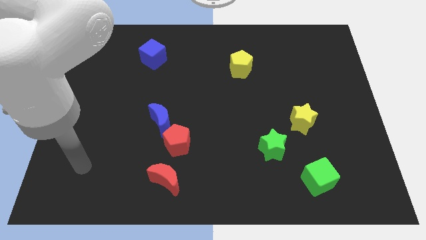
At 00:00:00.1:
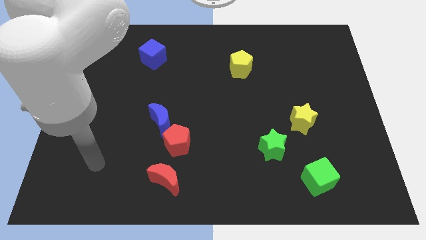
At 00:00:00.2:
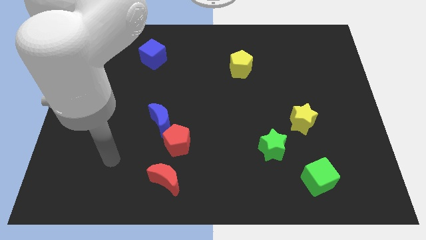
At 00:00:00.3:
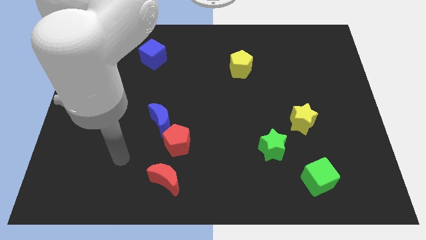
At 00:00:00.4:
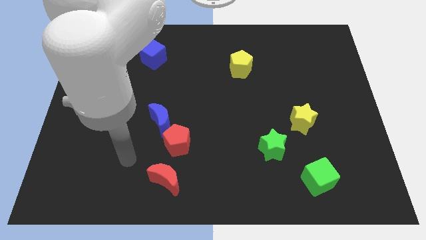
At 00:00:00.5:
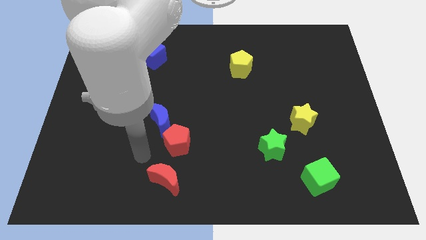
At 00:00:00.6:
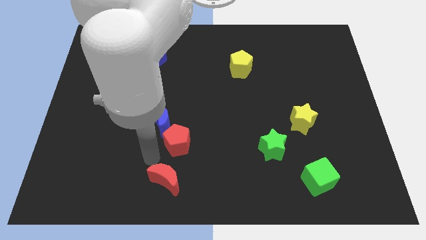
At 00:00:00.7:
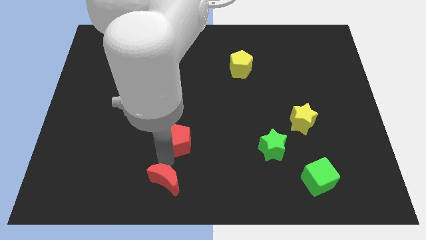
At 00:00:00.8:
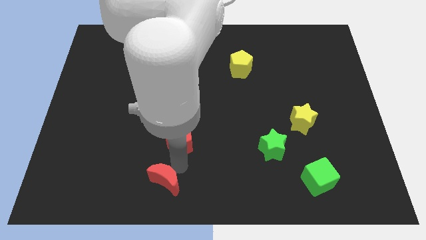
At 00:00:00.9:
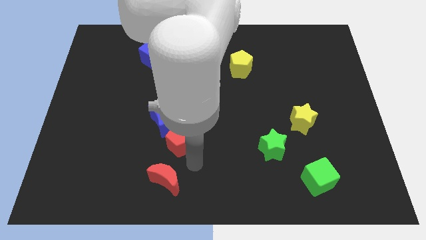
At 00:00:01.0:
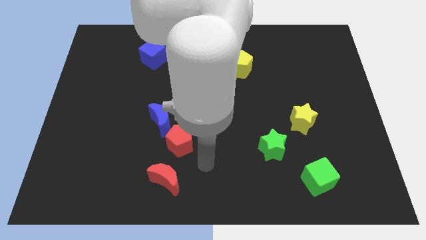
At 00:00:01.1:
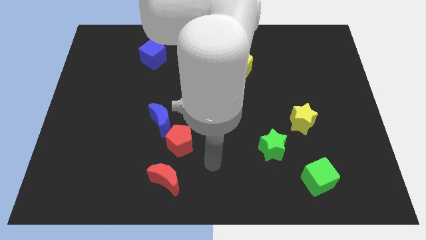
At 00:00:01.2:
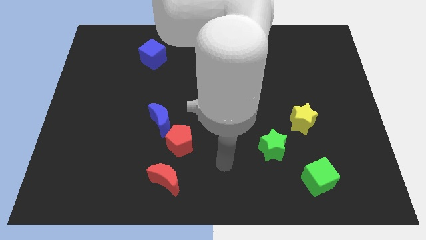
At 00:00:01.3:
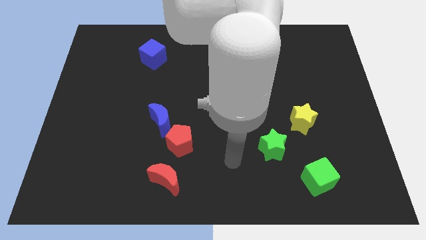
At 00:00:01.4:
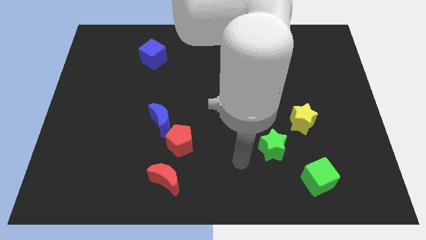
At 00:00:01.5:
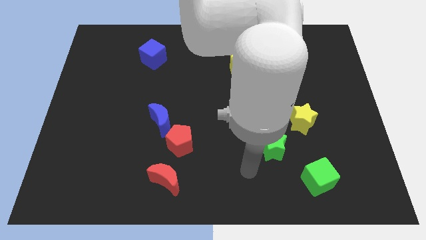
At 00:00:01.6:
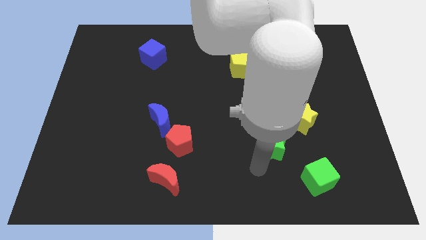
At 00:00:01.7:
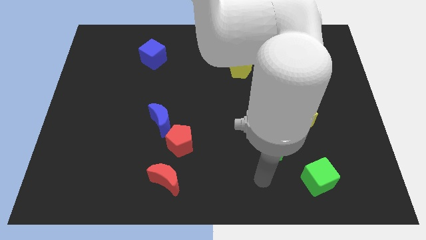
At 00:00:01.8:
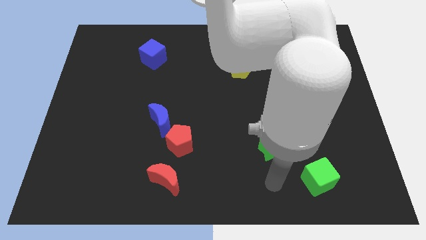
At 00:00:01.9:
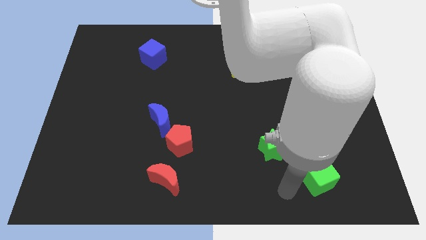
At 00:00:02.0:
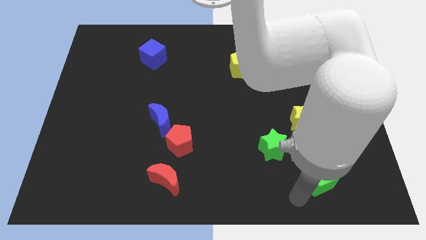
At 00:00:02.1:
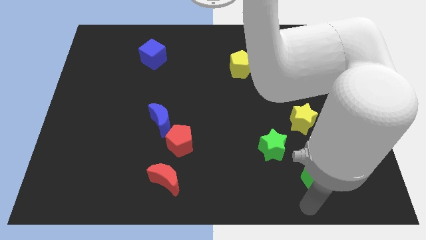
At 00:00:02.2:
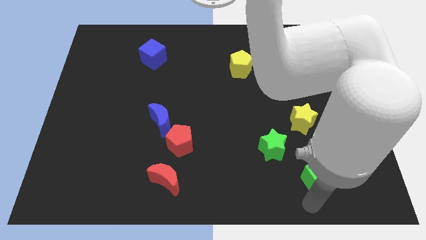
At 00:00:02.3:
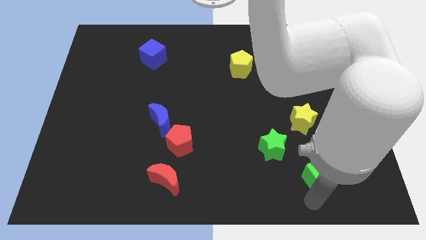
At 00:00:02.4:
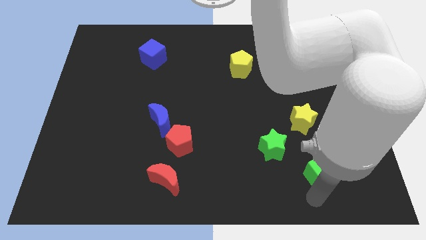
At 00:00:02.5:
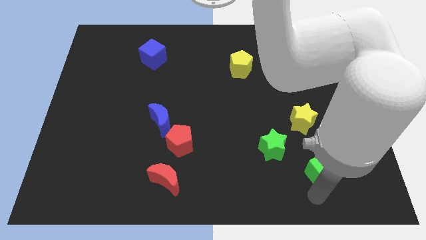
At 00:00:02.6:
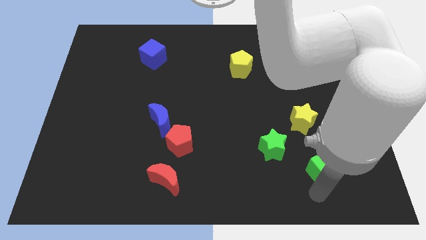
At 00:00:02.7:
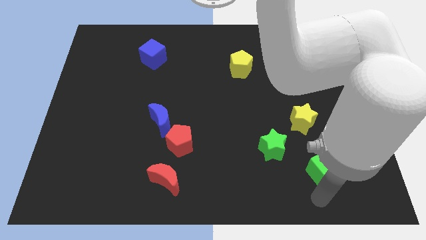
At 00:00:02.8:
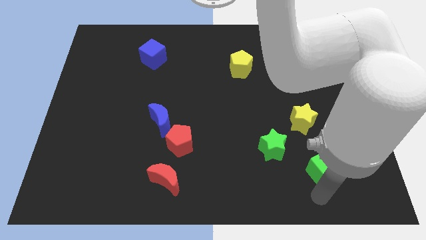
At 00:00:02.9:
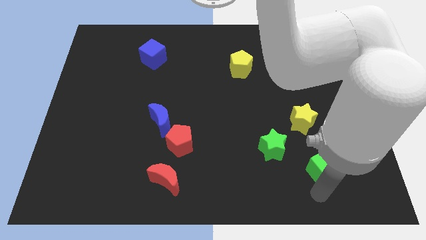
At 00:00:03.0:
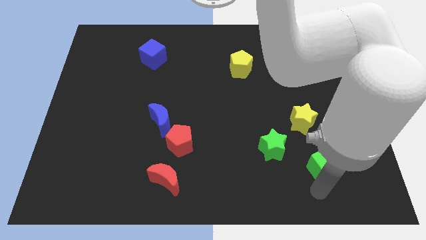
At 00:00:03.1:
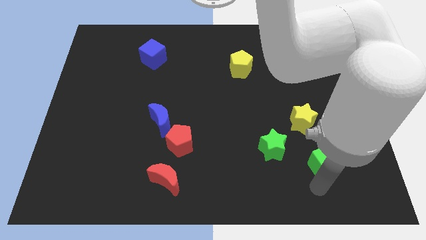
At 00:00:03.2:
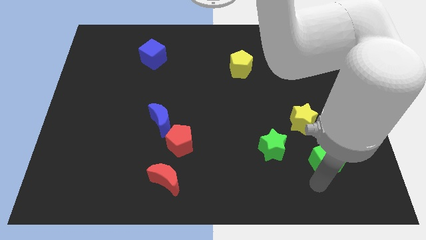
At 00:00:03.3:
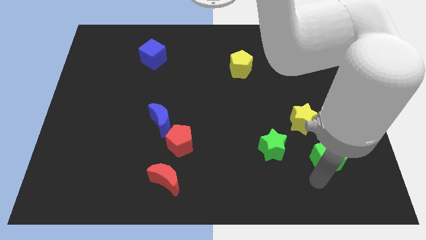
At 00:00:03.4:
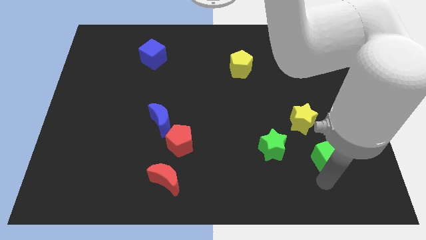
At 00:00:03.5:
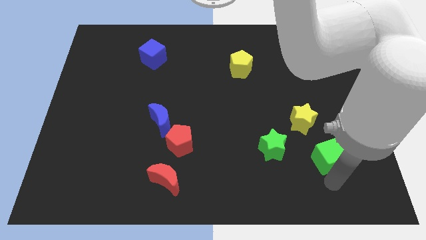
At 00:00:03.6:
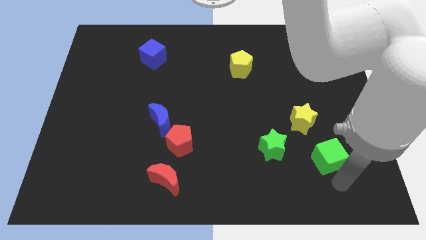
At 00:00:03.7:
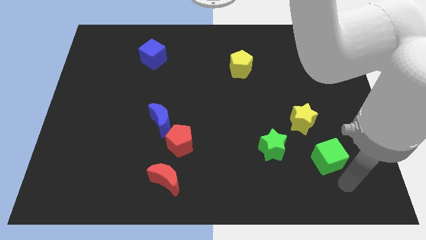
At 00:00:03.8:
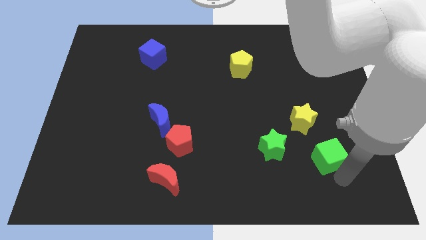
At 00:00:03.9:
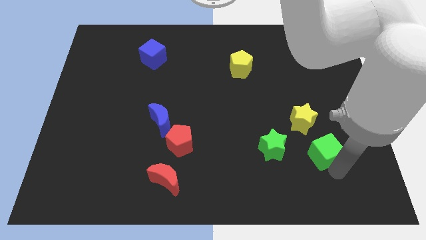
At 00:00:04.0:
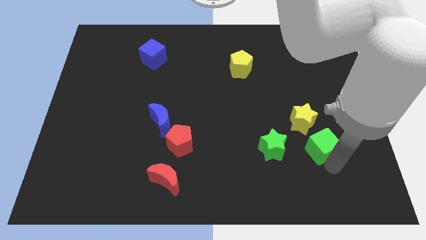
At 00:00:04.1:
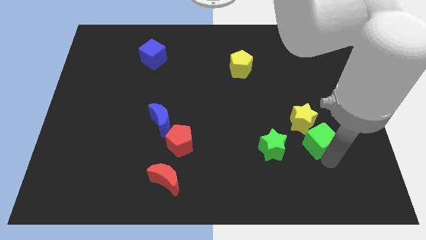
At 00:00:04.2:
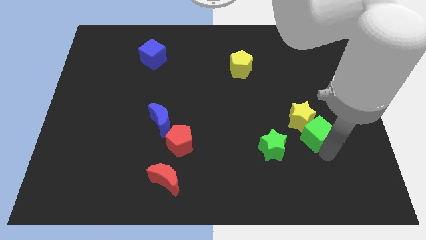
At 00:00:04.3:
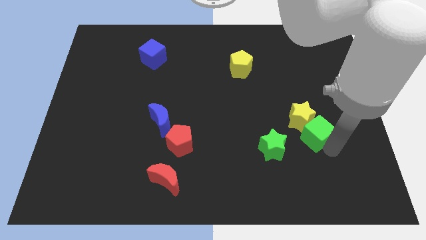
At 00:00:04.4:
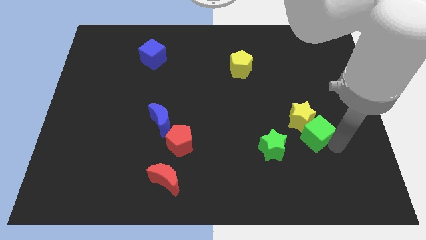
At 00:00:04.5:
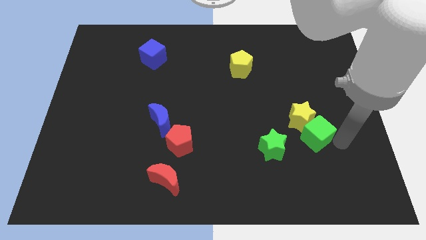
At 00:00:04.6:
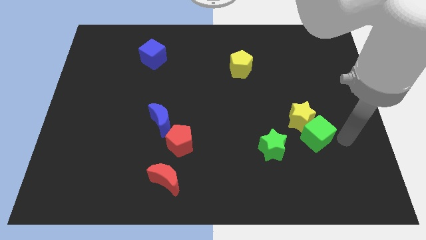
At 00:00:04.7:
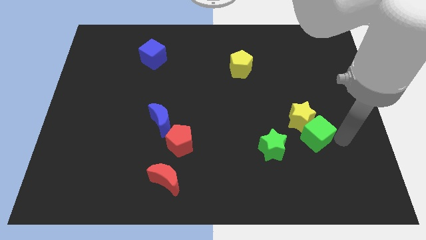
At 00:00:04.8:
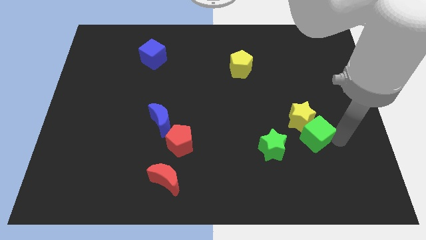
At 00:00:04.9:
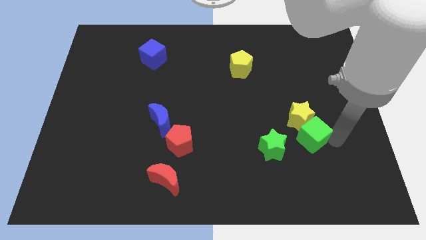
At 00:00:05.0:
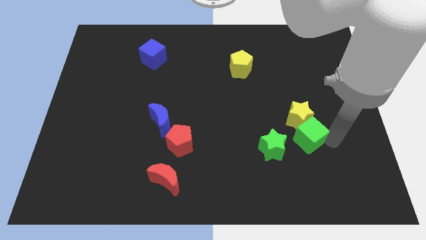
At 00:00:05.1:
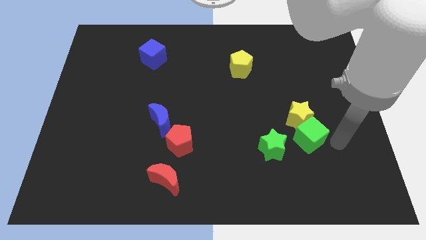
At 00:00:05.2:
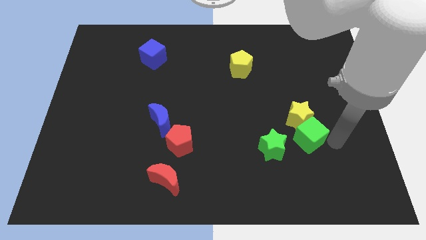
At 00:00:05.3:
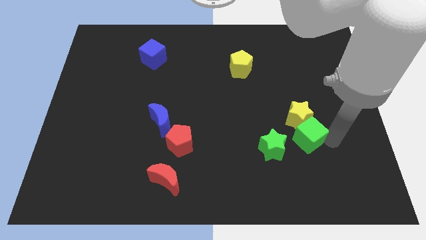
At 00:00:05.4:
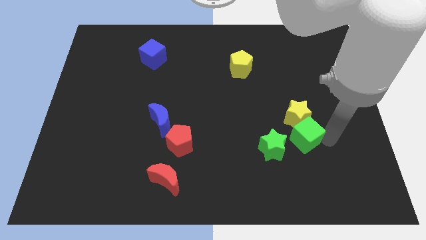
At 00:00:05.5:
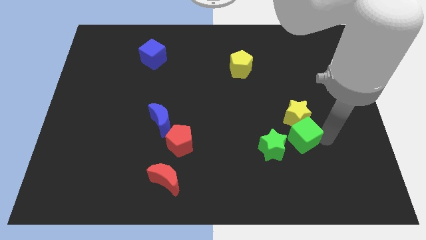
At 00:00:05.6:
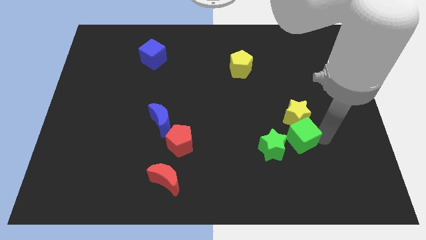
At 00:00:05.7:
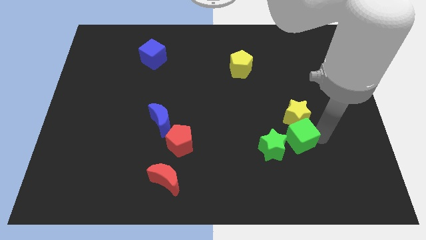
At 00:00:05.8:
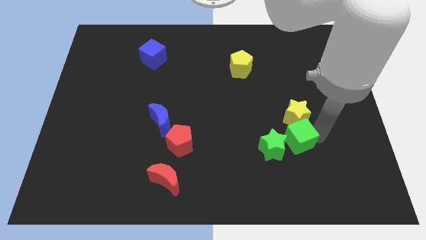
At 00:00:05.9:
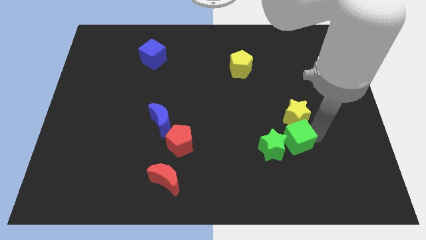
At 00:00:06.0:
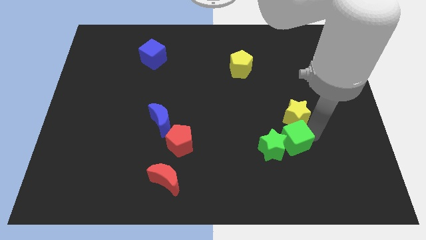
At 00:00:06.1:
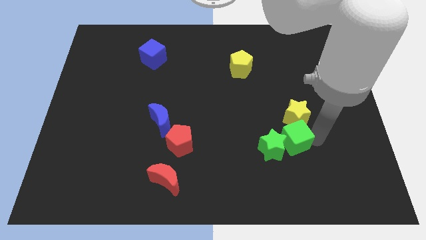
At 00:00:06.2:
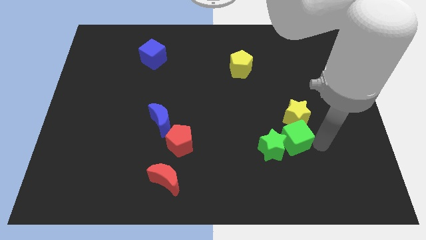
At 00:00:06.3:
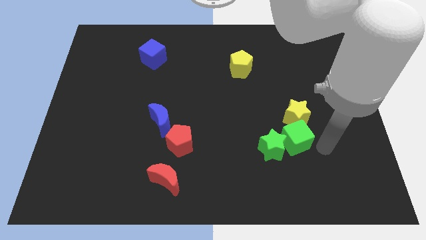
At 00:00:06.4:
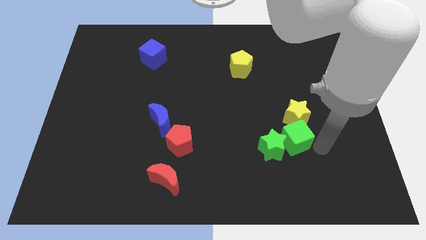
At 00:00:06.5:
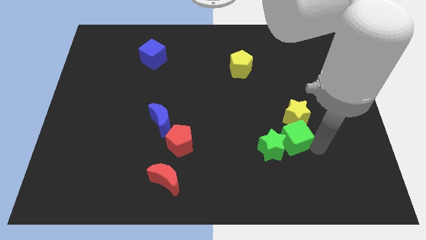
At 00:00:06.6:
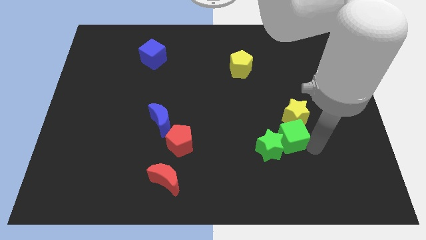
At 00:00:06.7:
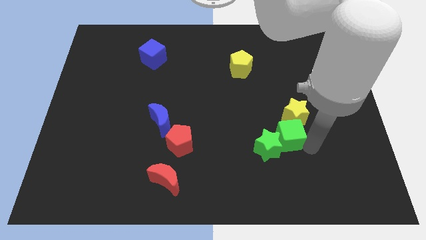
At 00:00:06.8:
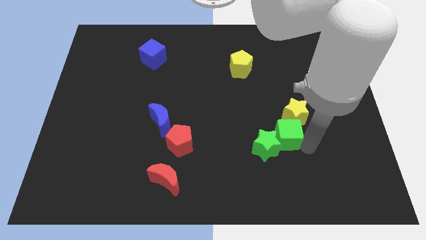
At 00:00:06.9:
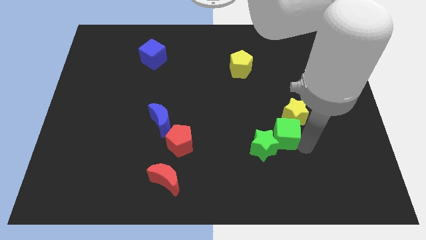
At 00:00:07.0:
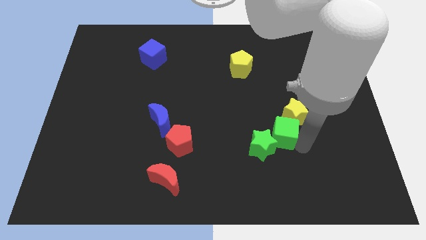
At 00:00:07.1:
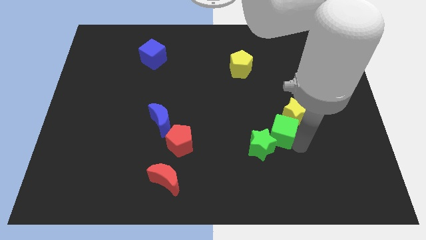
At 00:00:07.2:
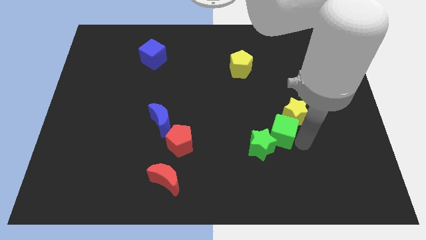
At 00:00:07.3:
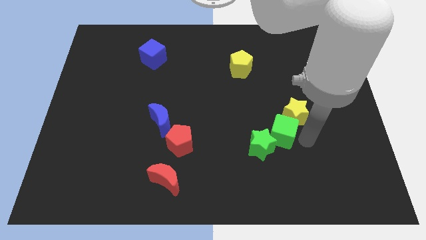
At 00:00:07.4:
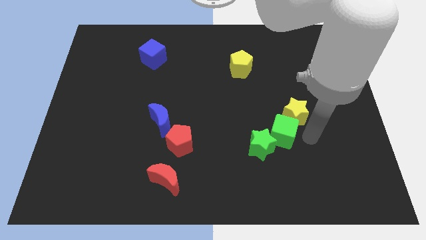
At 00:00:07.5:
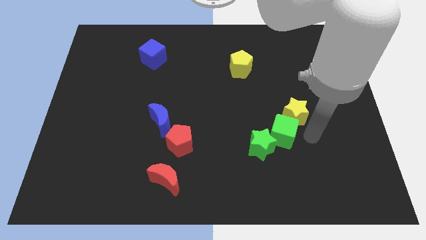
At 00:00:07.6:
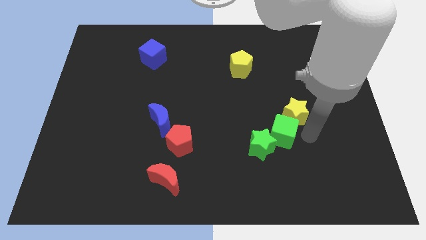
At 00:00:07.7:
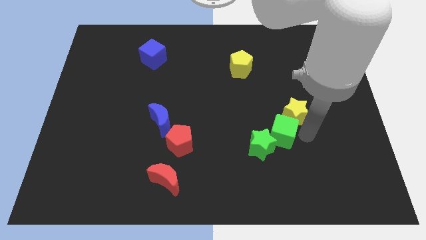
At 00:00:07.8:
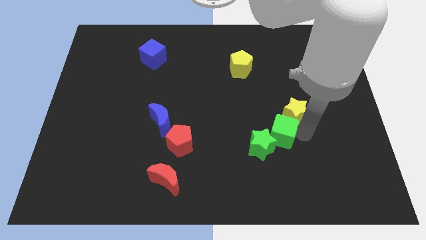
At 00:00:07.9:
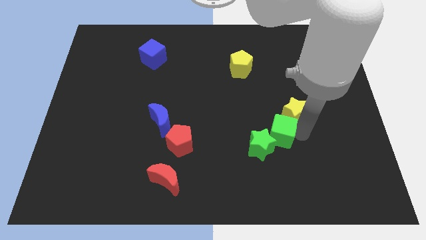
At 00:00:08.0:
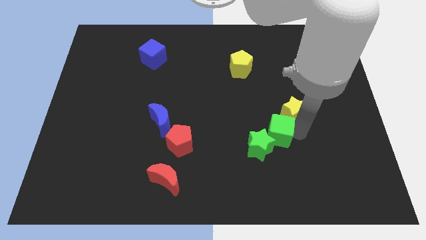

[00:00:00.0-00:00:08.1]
slide the green cube left of the yellow star
